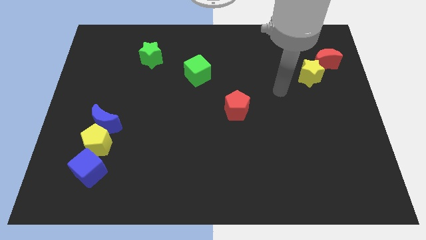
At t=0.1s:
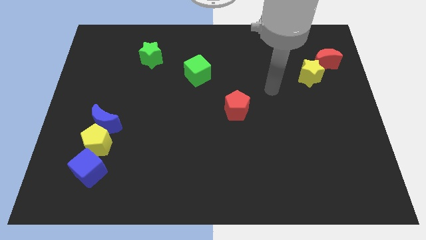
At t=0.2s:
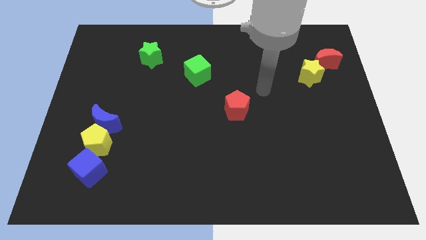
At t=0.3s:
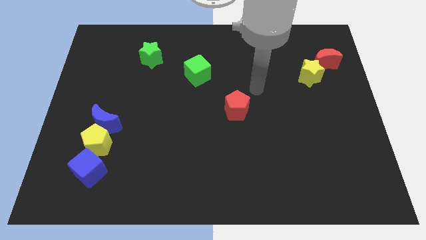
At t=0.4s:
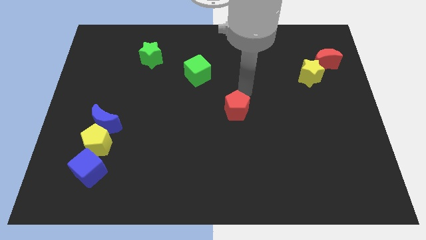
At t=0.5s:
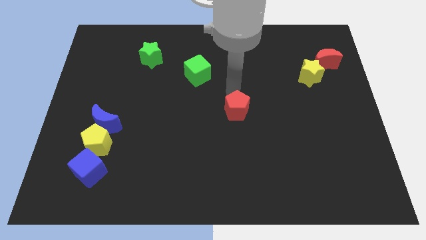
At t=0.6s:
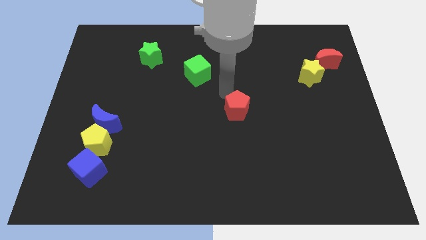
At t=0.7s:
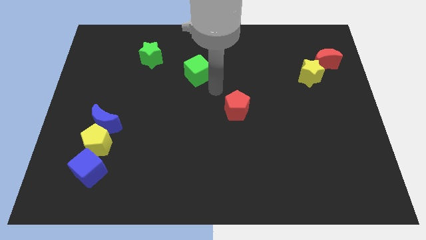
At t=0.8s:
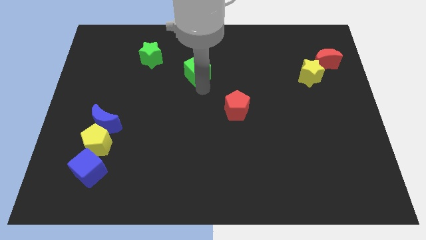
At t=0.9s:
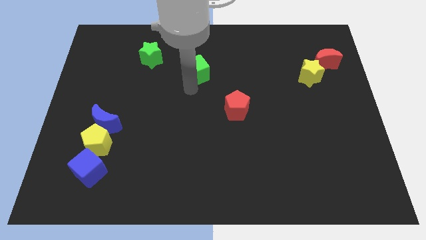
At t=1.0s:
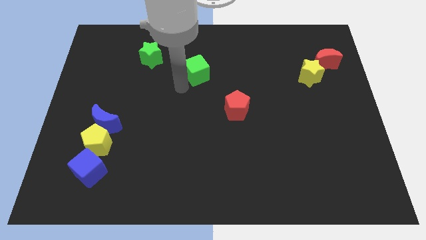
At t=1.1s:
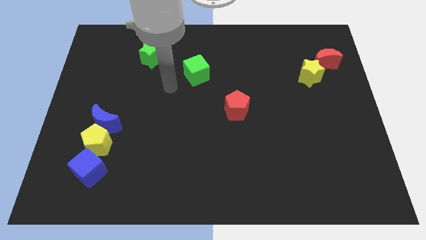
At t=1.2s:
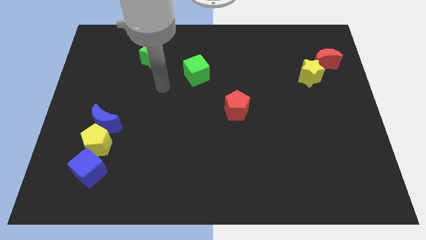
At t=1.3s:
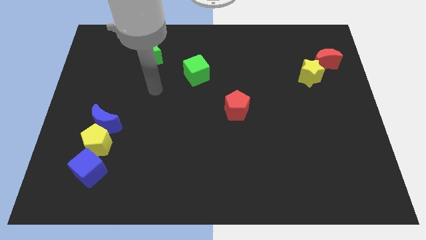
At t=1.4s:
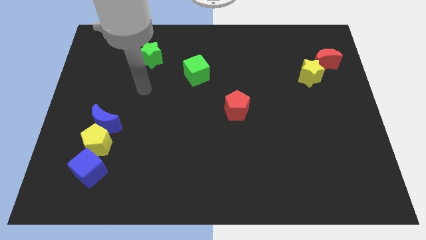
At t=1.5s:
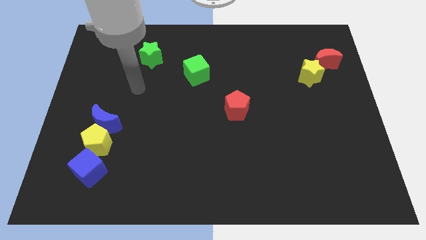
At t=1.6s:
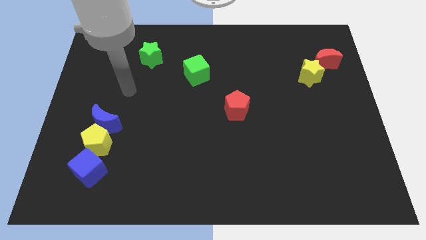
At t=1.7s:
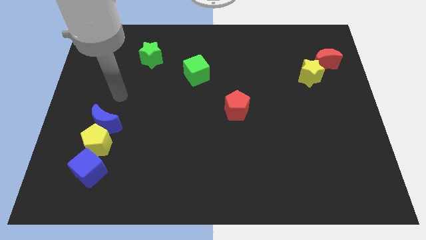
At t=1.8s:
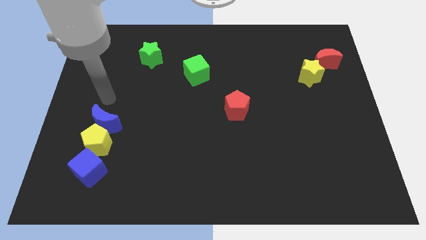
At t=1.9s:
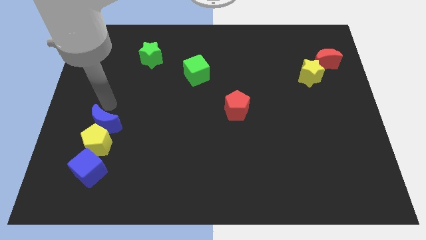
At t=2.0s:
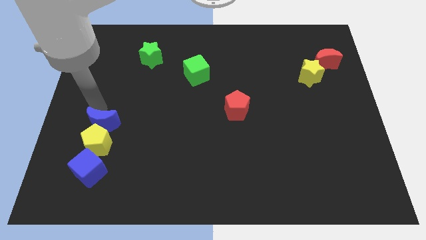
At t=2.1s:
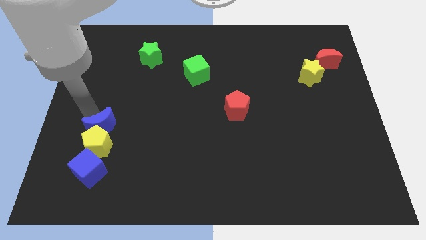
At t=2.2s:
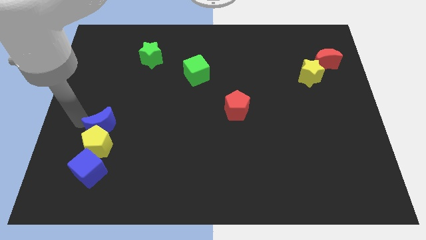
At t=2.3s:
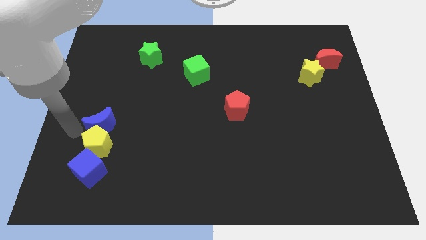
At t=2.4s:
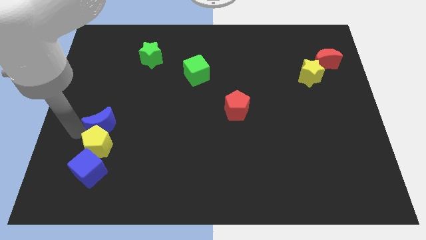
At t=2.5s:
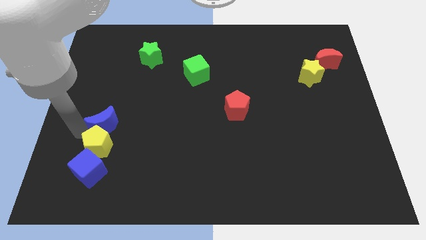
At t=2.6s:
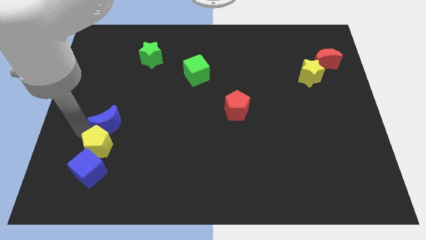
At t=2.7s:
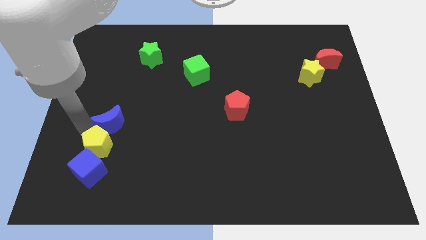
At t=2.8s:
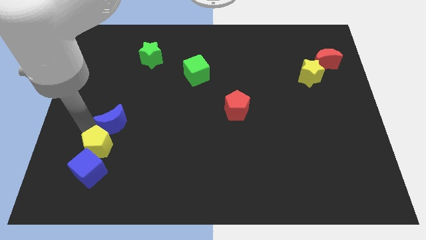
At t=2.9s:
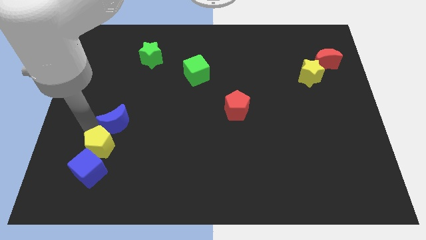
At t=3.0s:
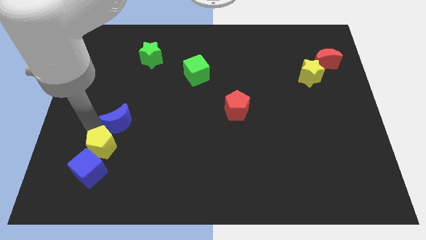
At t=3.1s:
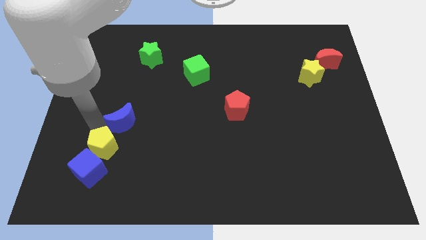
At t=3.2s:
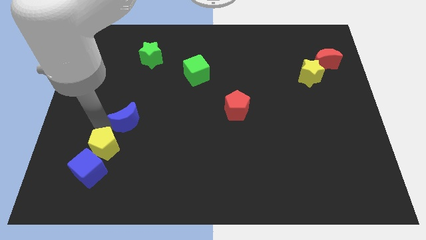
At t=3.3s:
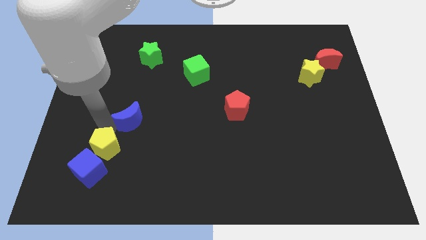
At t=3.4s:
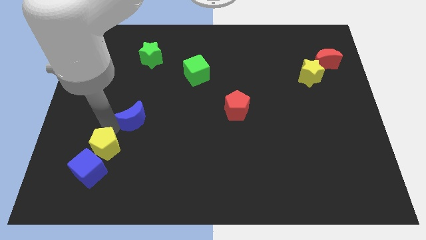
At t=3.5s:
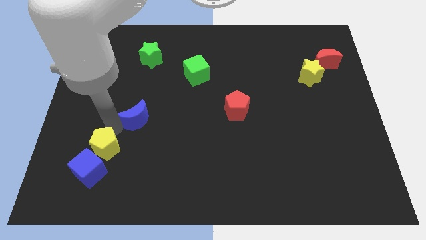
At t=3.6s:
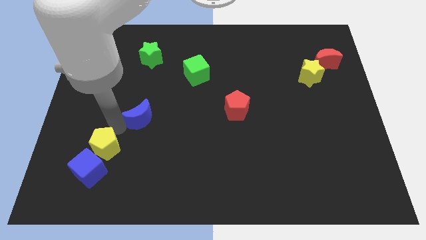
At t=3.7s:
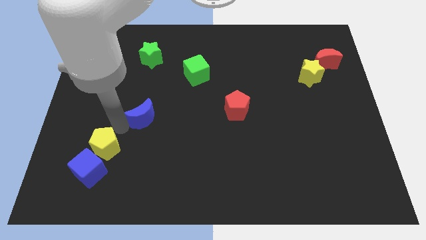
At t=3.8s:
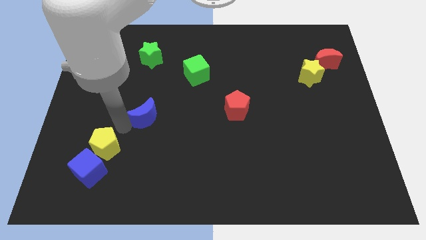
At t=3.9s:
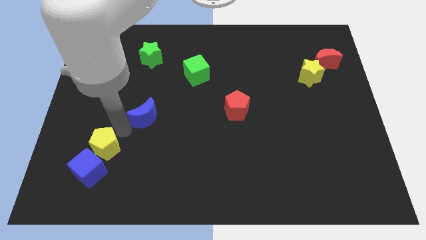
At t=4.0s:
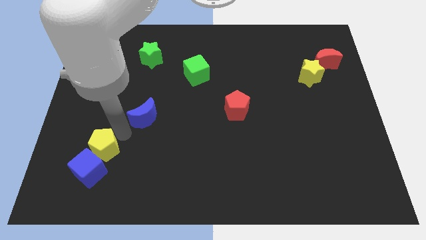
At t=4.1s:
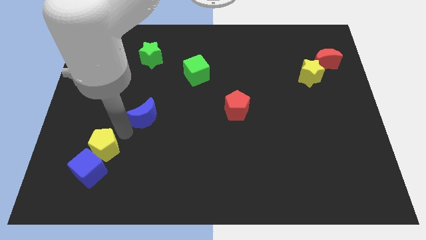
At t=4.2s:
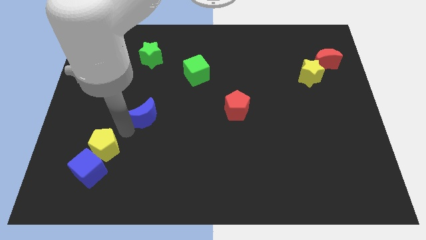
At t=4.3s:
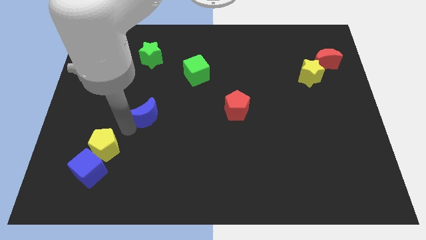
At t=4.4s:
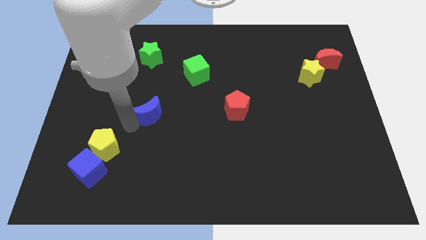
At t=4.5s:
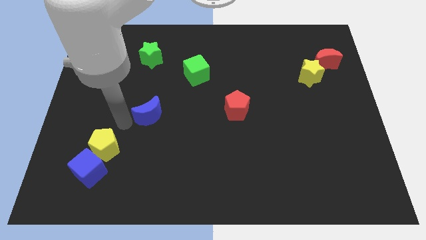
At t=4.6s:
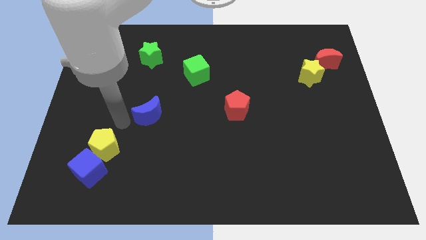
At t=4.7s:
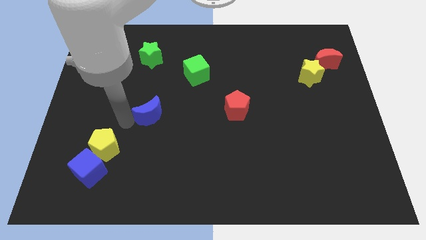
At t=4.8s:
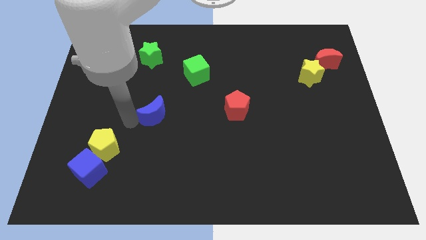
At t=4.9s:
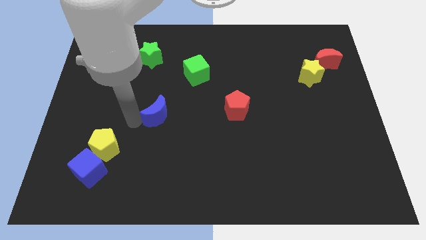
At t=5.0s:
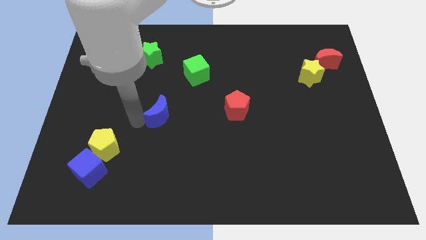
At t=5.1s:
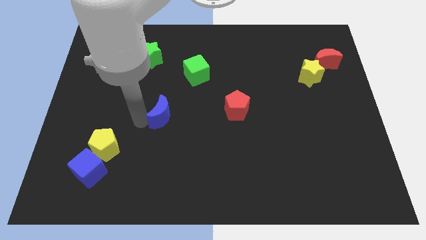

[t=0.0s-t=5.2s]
move the blue moon to the center

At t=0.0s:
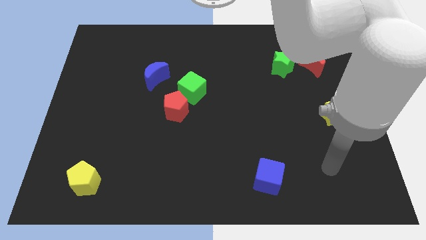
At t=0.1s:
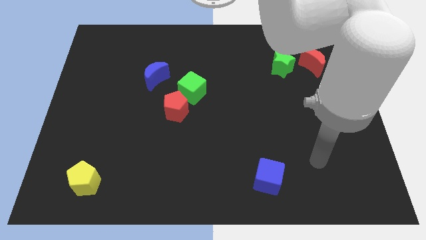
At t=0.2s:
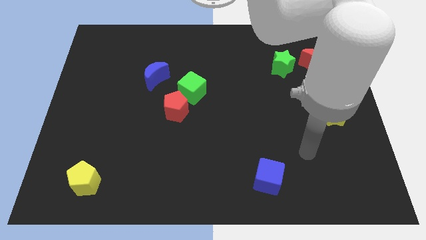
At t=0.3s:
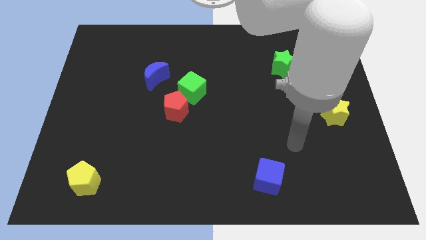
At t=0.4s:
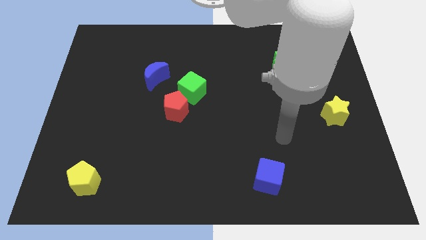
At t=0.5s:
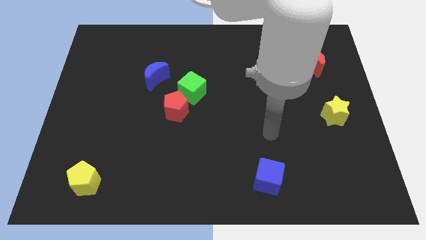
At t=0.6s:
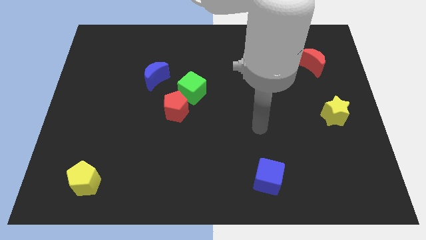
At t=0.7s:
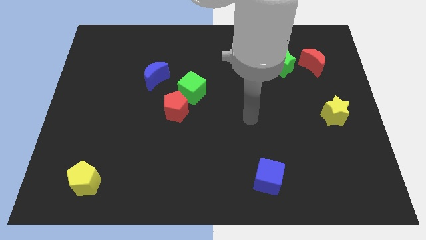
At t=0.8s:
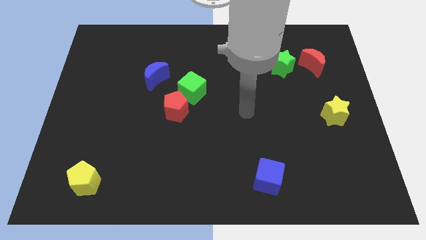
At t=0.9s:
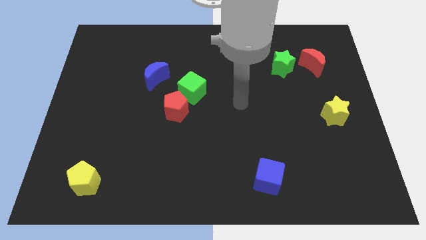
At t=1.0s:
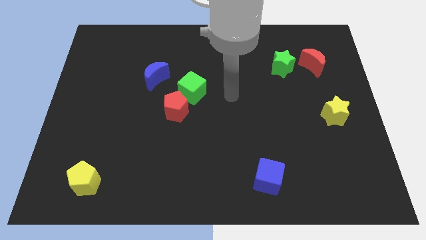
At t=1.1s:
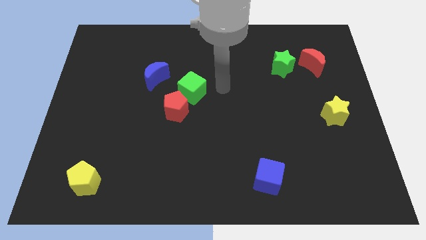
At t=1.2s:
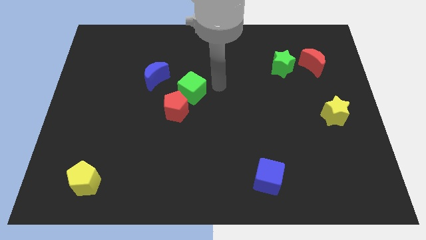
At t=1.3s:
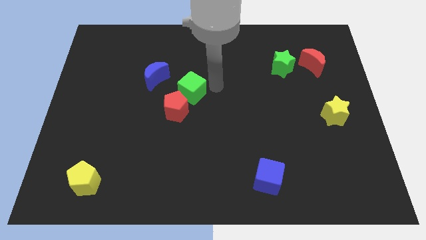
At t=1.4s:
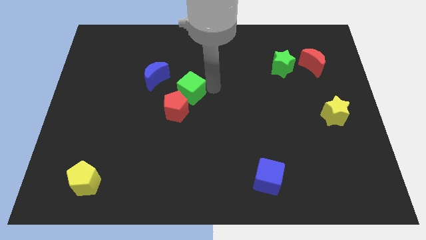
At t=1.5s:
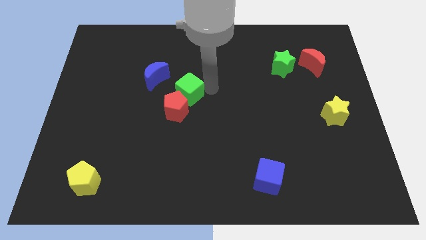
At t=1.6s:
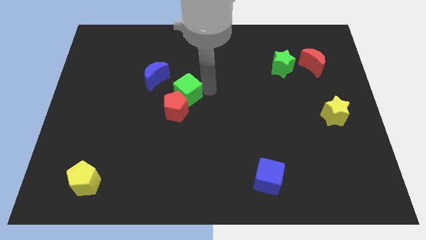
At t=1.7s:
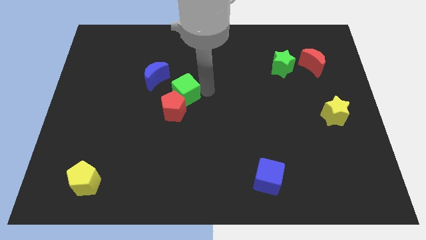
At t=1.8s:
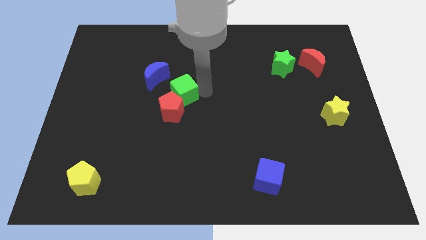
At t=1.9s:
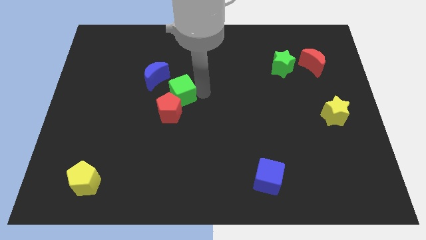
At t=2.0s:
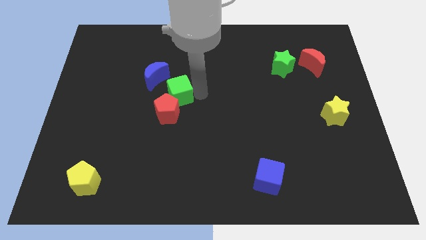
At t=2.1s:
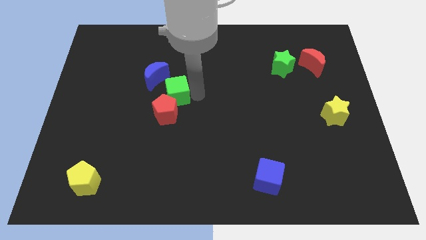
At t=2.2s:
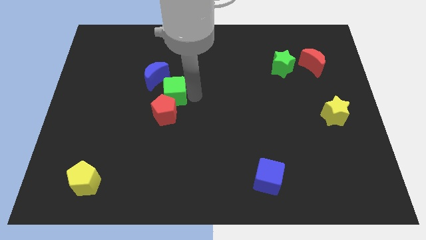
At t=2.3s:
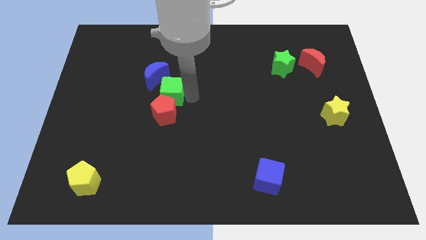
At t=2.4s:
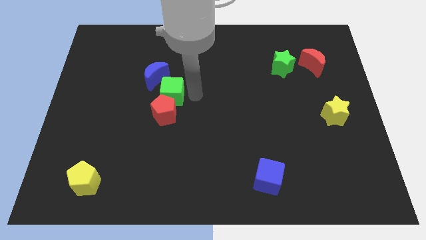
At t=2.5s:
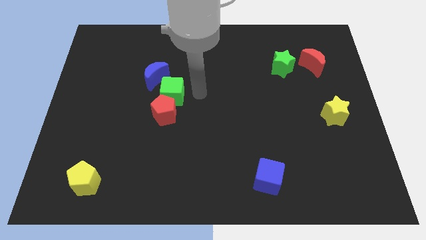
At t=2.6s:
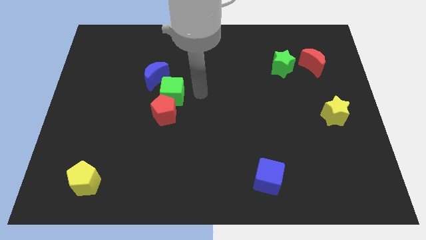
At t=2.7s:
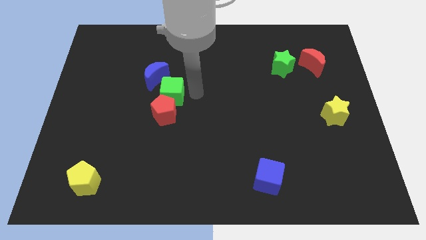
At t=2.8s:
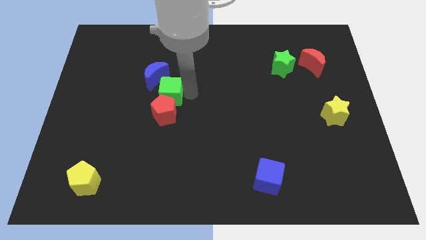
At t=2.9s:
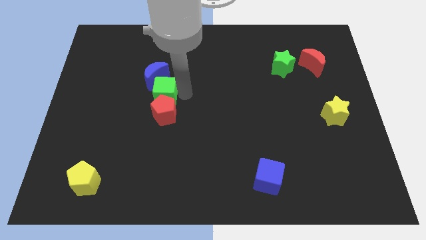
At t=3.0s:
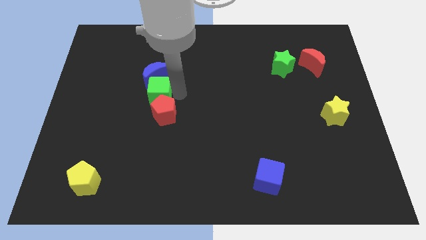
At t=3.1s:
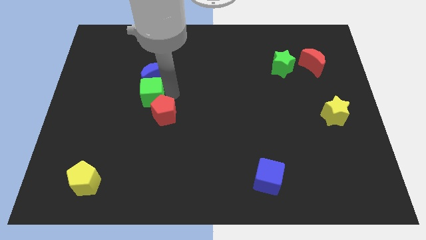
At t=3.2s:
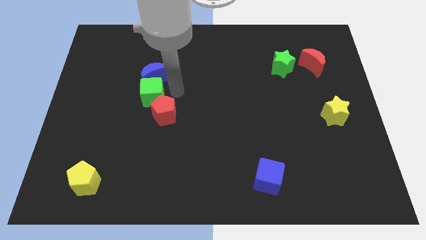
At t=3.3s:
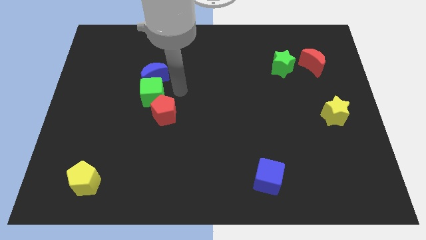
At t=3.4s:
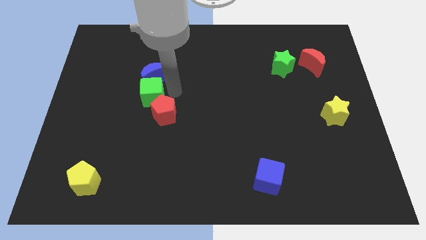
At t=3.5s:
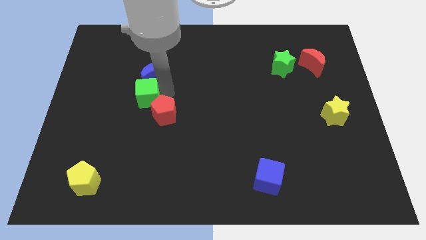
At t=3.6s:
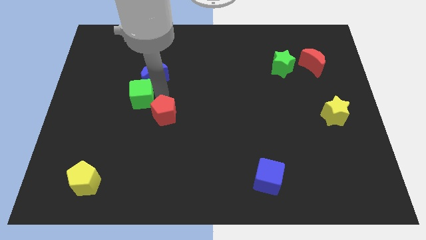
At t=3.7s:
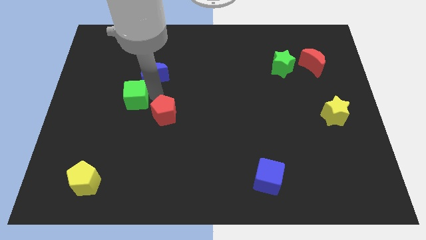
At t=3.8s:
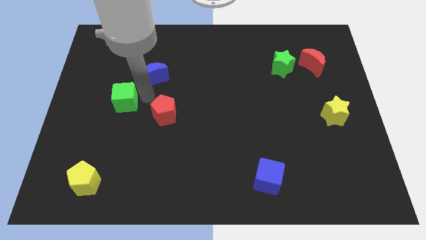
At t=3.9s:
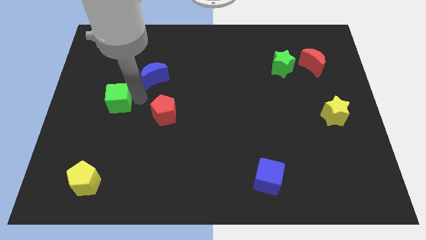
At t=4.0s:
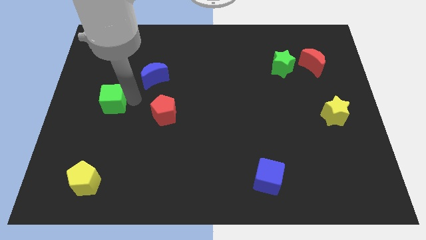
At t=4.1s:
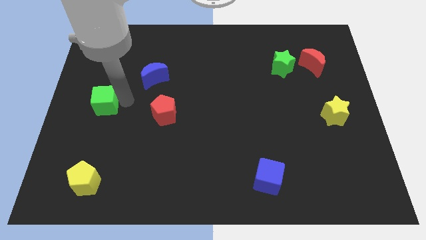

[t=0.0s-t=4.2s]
slide the green cube to the left side
